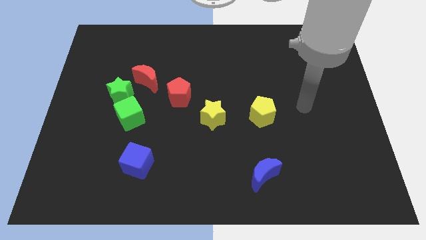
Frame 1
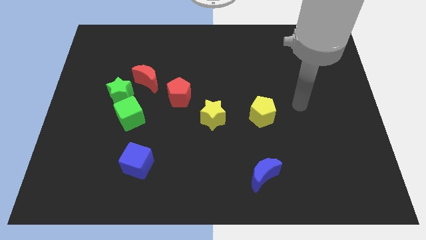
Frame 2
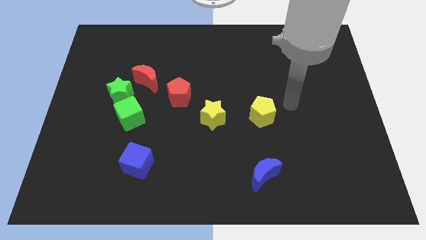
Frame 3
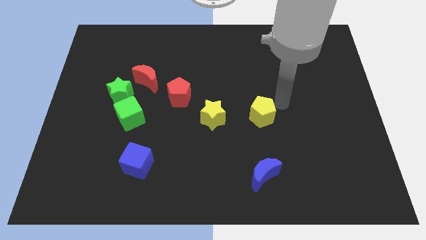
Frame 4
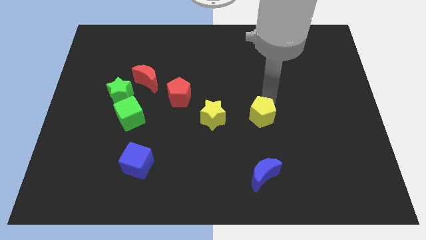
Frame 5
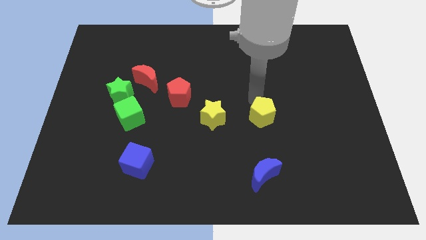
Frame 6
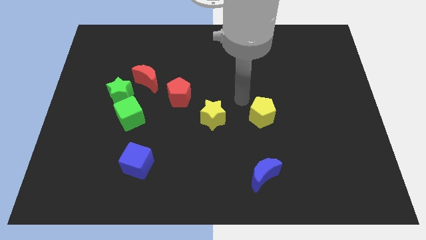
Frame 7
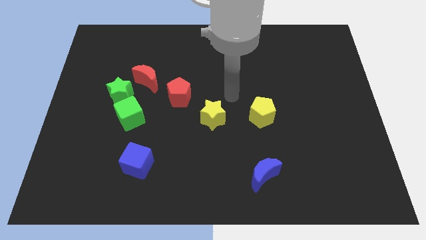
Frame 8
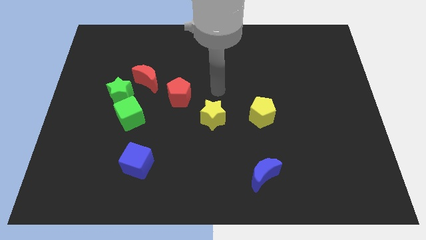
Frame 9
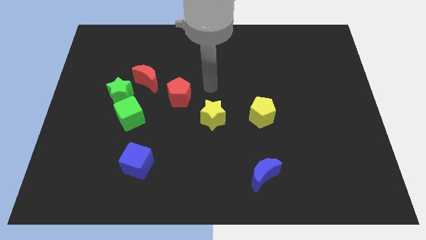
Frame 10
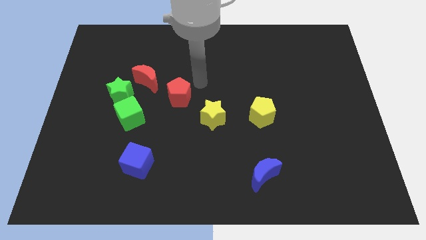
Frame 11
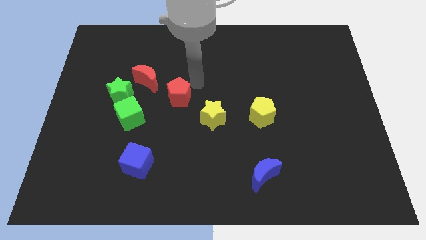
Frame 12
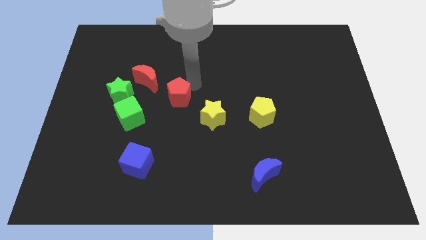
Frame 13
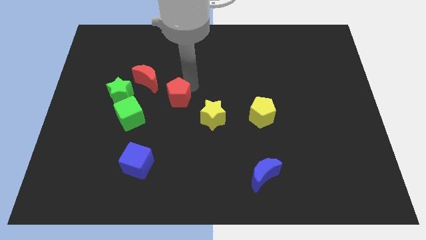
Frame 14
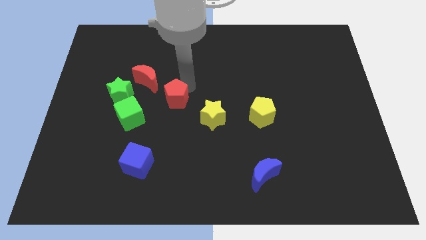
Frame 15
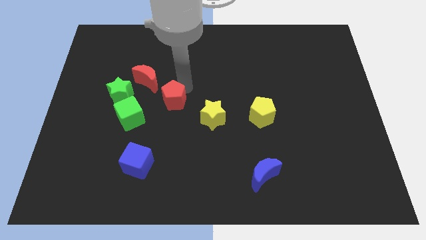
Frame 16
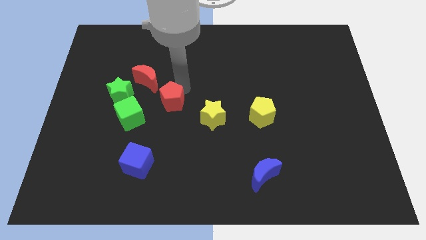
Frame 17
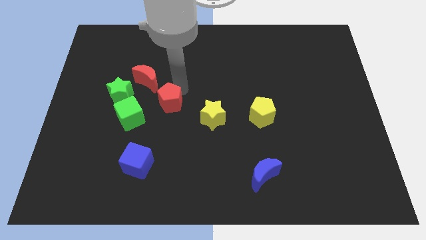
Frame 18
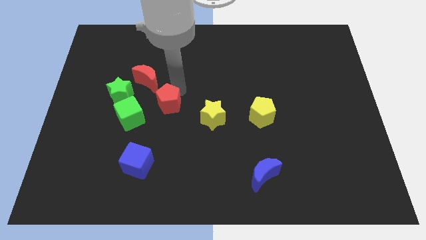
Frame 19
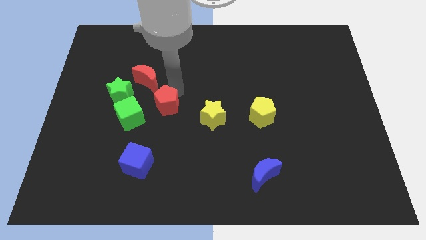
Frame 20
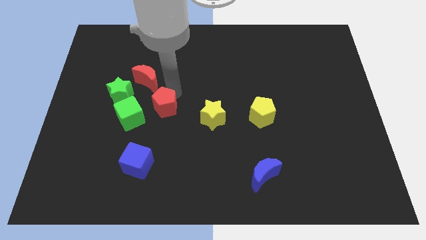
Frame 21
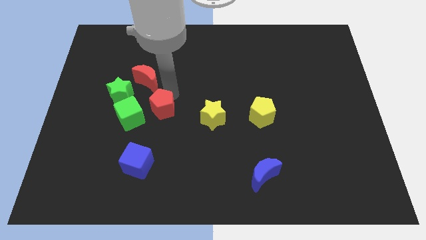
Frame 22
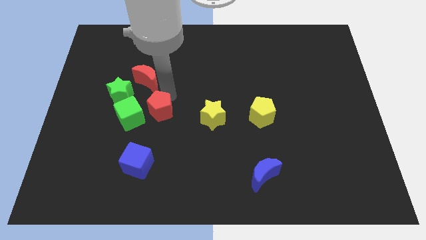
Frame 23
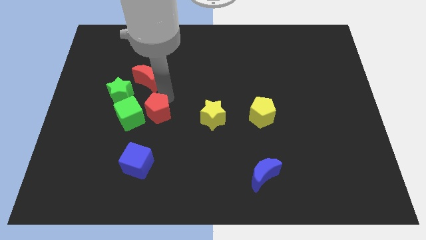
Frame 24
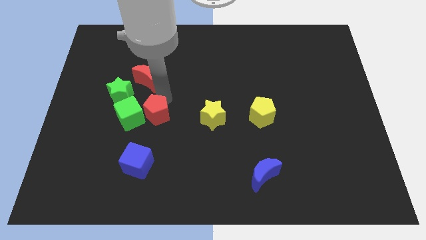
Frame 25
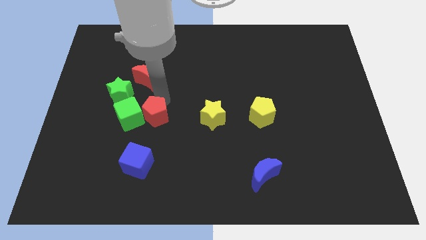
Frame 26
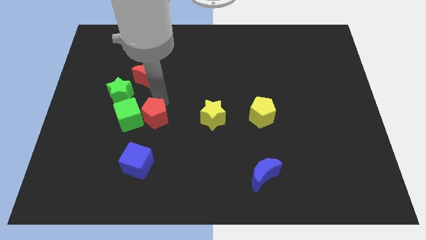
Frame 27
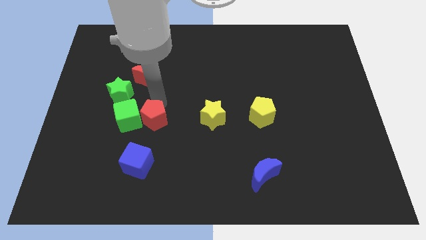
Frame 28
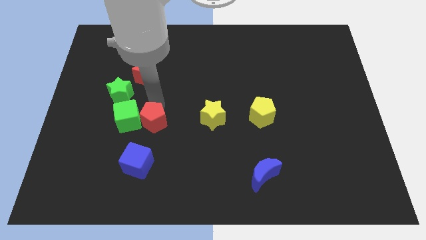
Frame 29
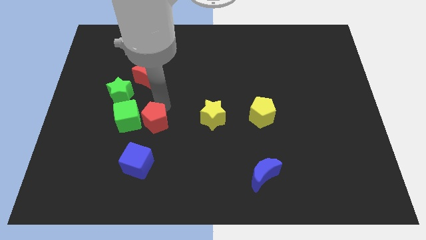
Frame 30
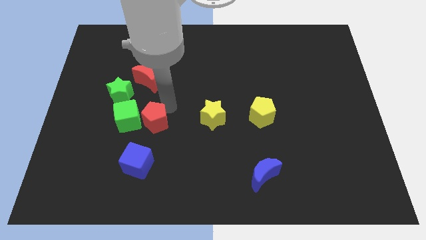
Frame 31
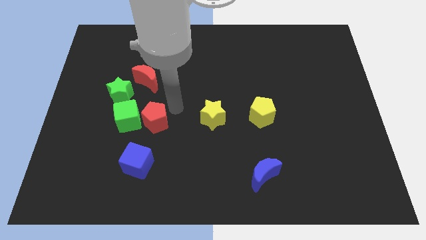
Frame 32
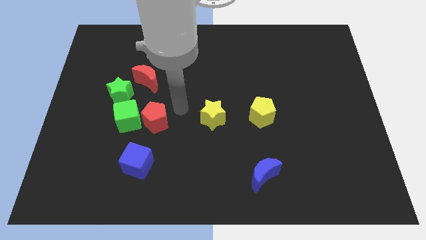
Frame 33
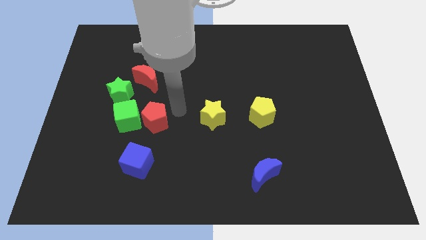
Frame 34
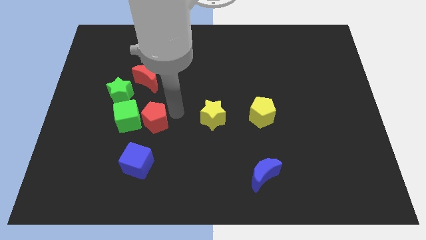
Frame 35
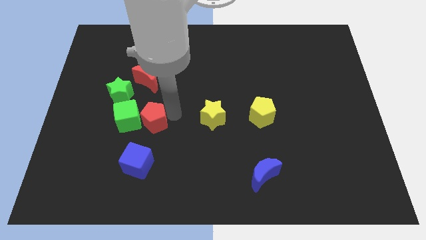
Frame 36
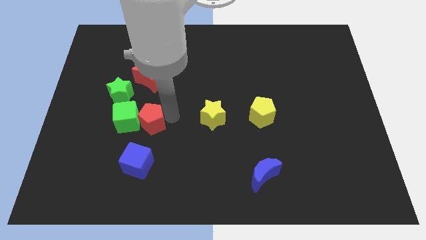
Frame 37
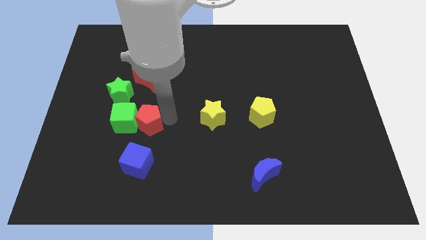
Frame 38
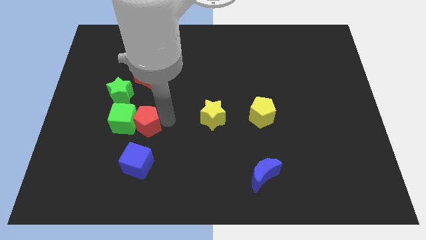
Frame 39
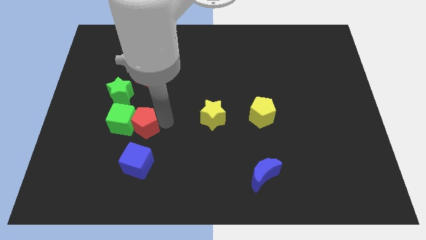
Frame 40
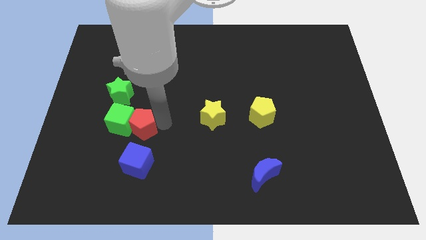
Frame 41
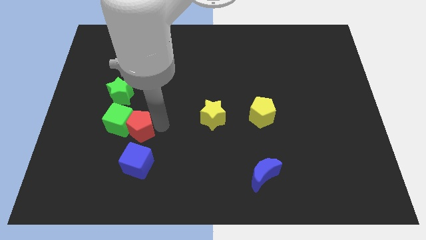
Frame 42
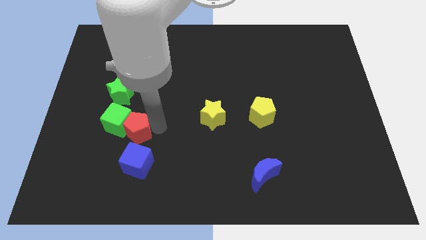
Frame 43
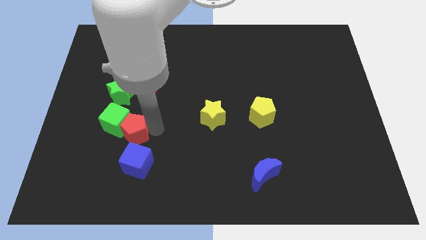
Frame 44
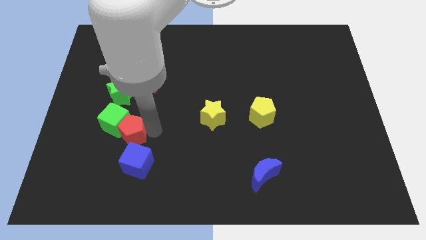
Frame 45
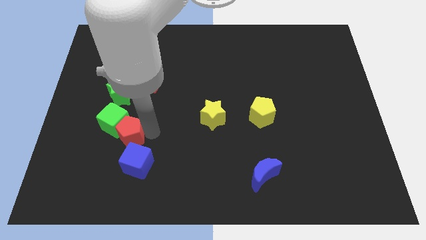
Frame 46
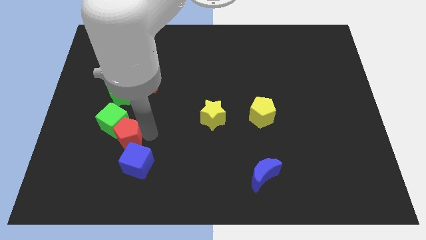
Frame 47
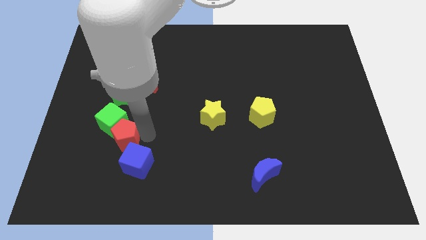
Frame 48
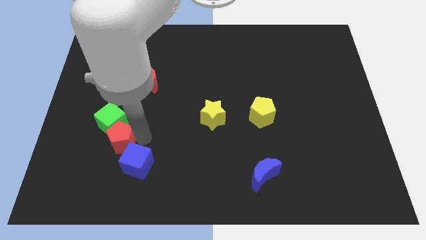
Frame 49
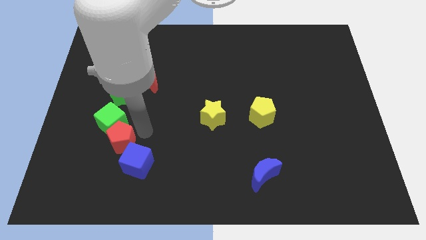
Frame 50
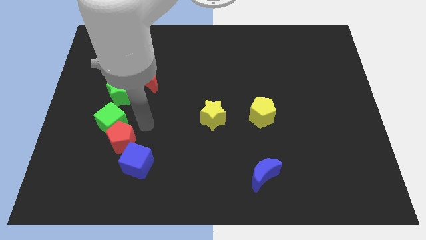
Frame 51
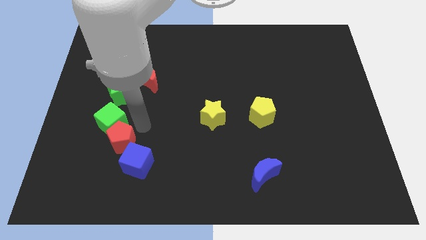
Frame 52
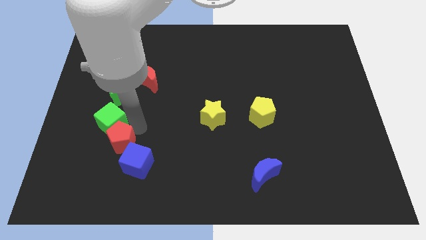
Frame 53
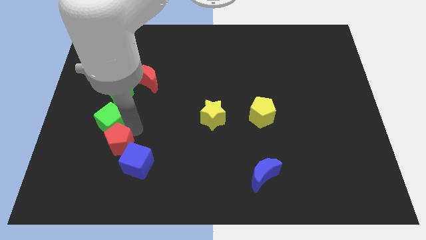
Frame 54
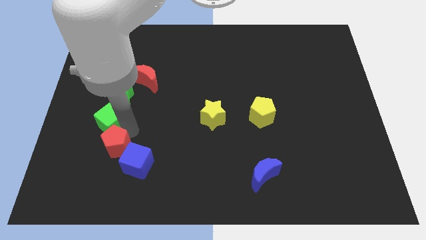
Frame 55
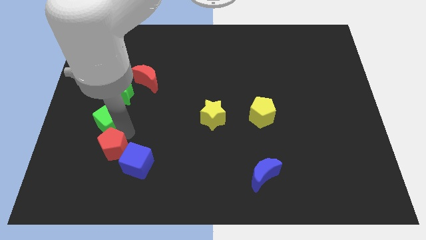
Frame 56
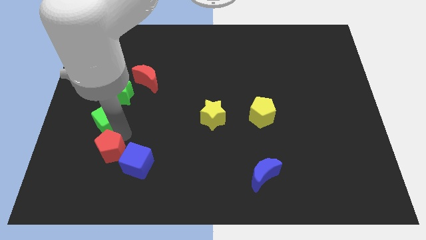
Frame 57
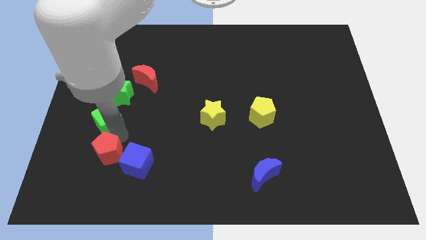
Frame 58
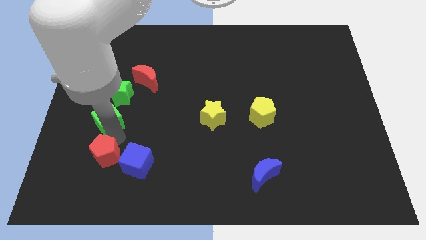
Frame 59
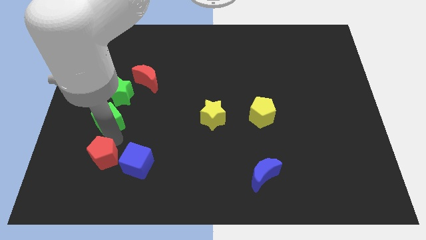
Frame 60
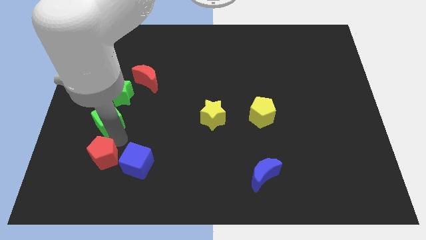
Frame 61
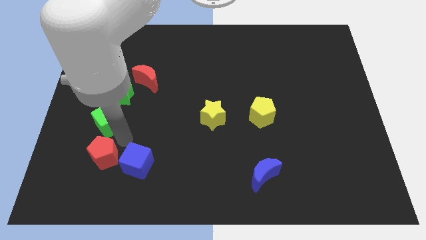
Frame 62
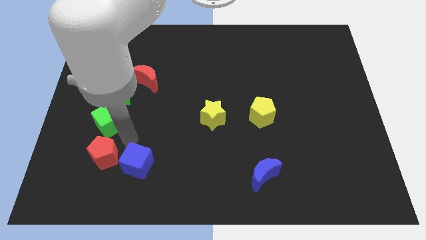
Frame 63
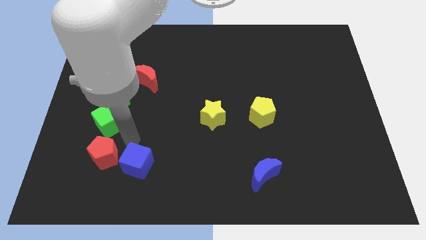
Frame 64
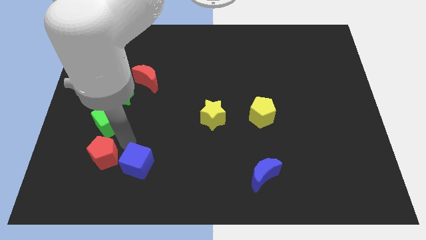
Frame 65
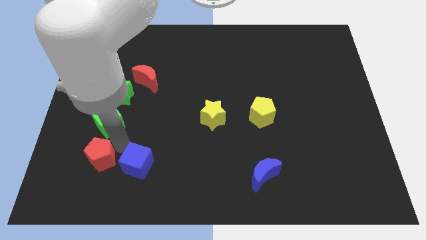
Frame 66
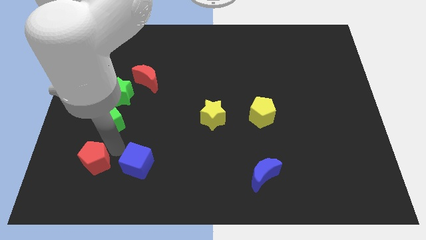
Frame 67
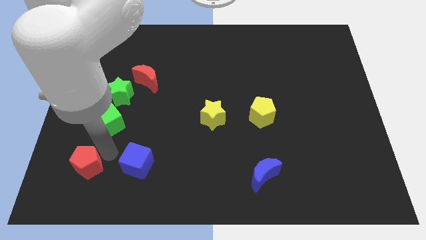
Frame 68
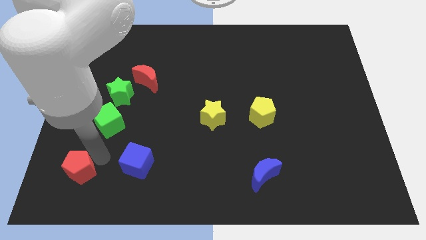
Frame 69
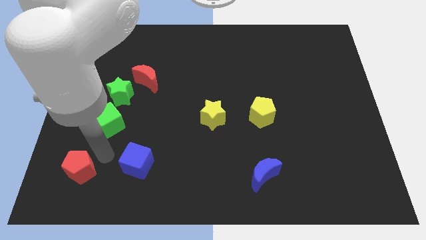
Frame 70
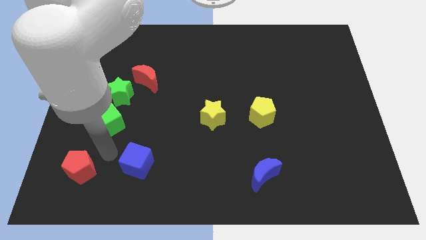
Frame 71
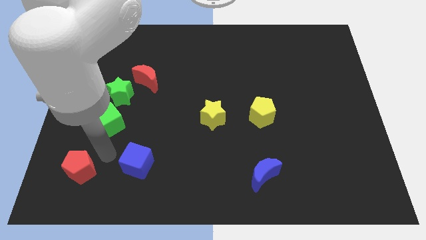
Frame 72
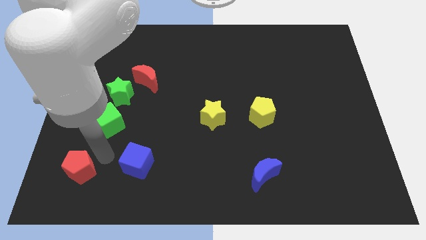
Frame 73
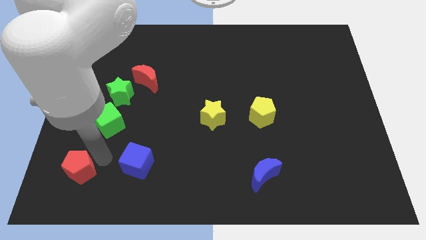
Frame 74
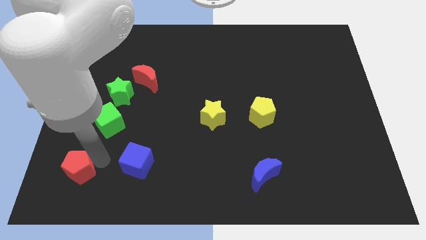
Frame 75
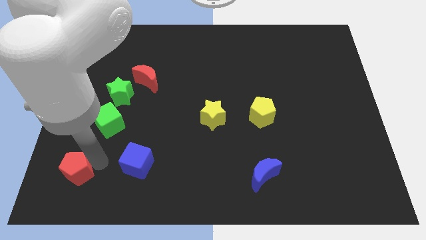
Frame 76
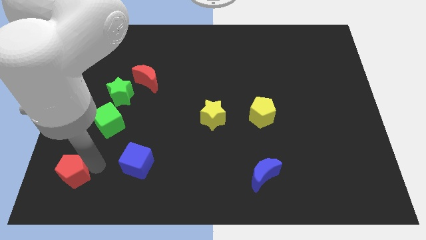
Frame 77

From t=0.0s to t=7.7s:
push the red pentagon to the lower left corner
